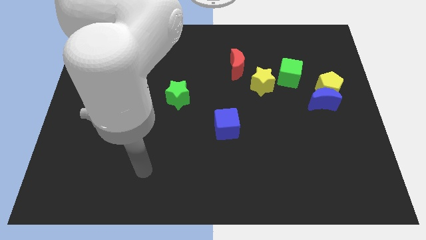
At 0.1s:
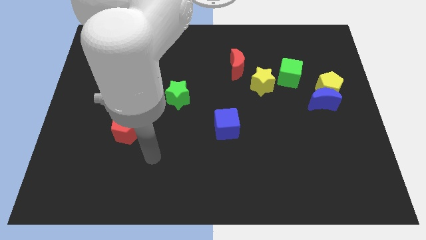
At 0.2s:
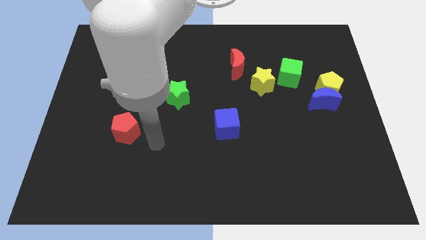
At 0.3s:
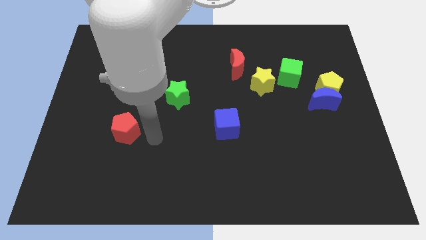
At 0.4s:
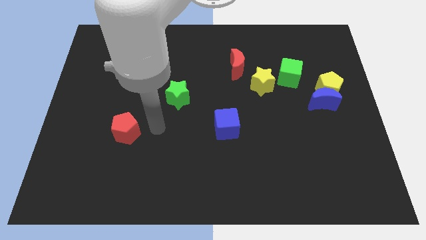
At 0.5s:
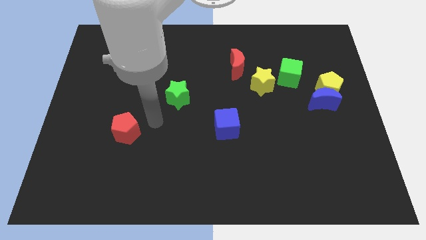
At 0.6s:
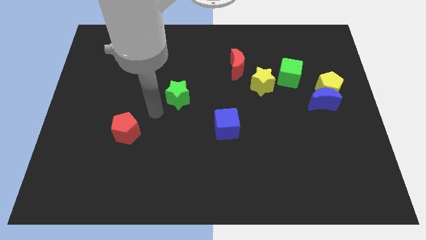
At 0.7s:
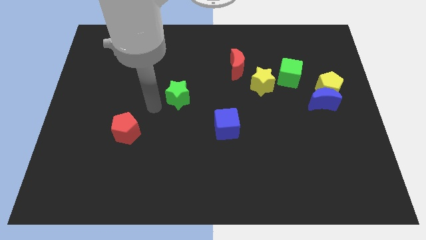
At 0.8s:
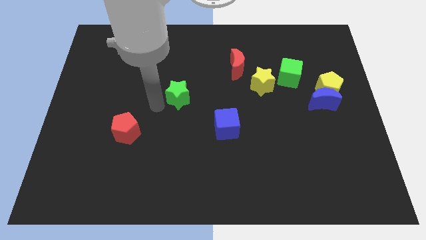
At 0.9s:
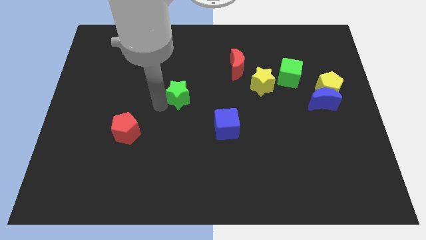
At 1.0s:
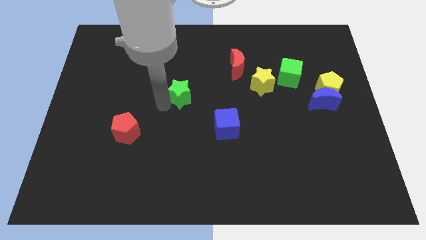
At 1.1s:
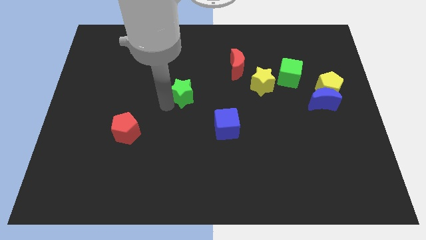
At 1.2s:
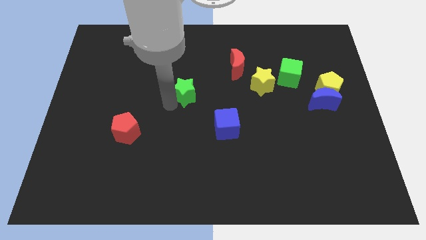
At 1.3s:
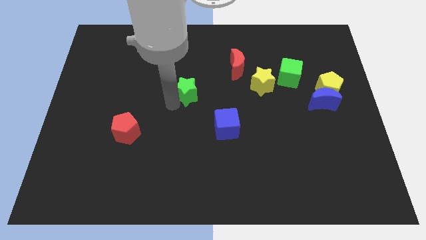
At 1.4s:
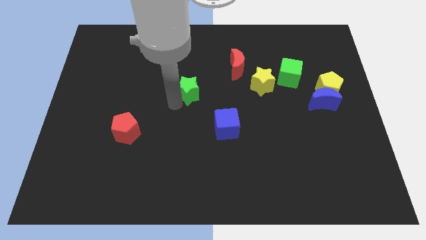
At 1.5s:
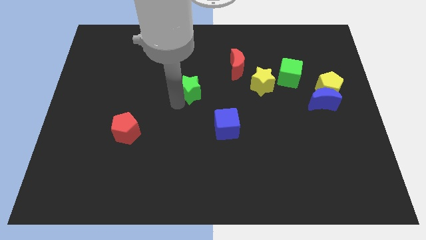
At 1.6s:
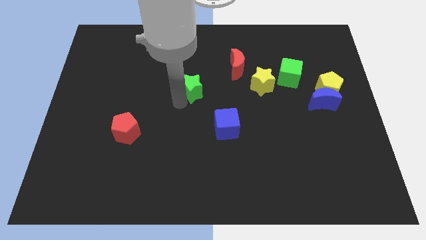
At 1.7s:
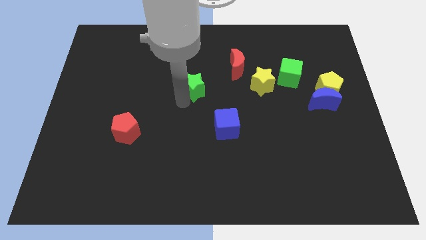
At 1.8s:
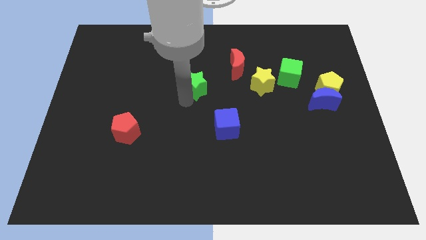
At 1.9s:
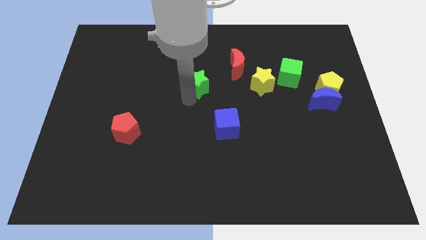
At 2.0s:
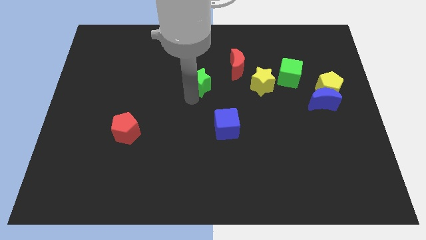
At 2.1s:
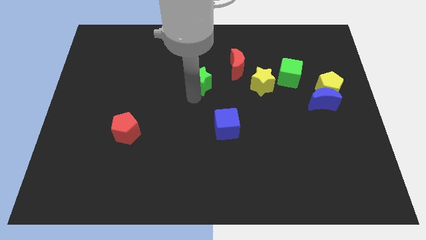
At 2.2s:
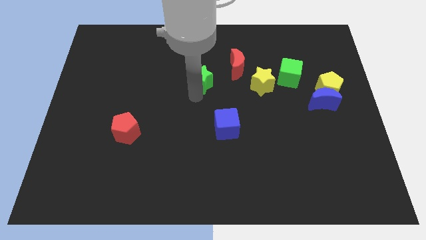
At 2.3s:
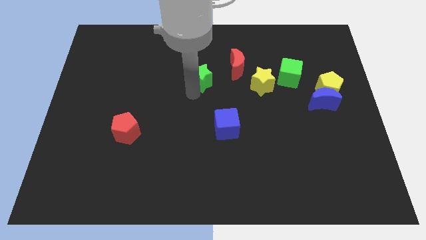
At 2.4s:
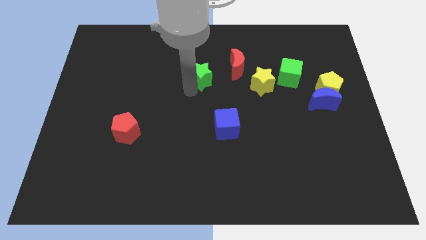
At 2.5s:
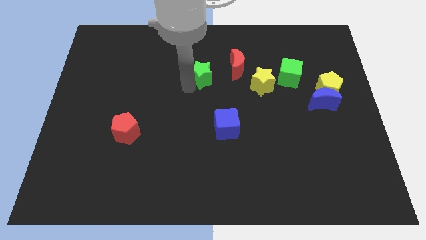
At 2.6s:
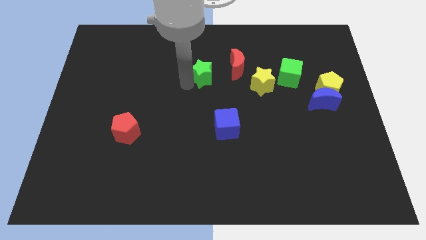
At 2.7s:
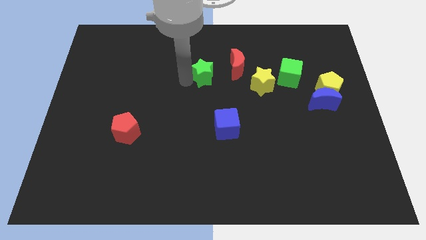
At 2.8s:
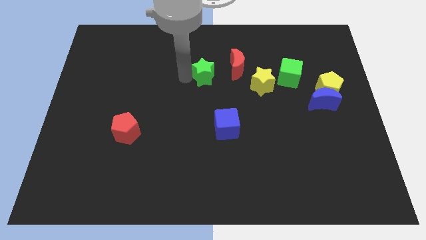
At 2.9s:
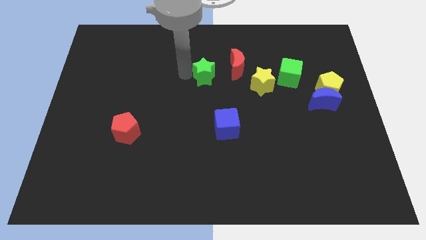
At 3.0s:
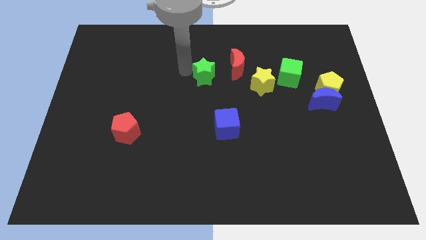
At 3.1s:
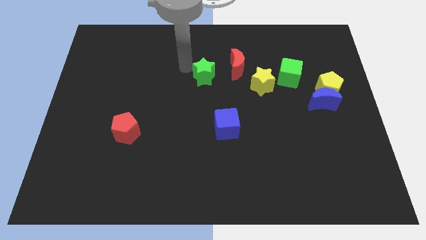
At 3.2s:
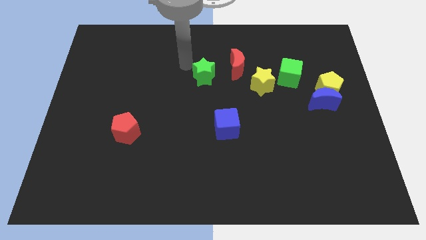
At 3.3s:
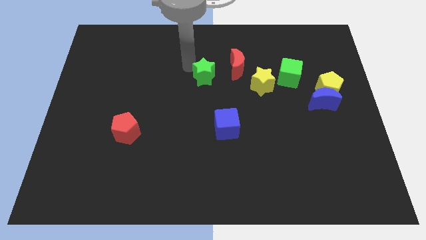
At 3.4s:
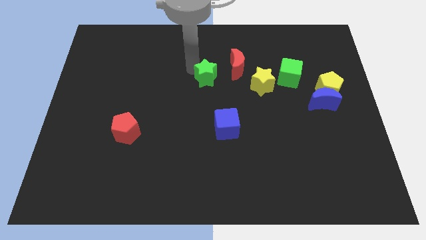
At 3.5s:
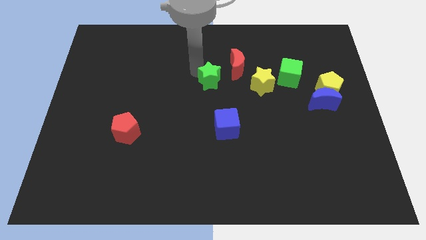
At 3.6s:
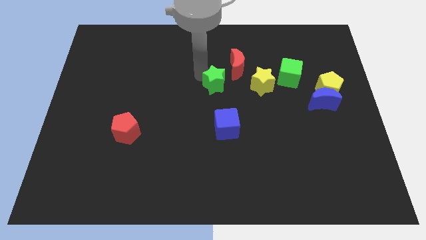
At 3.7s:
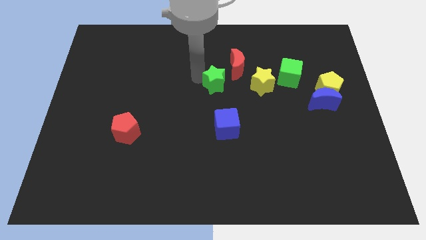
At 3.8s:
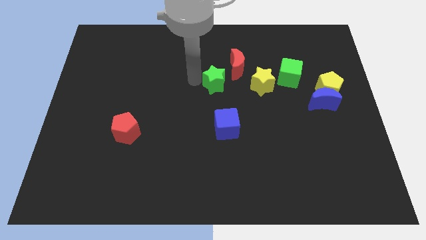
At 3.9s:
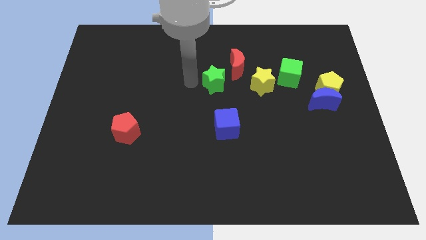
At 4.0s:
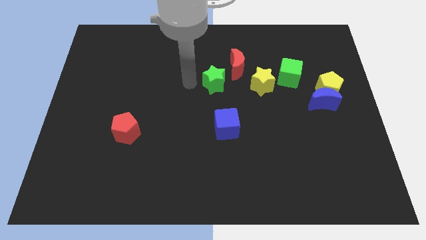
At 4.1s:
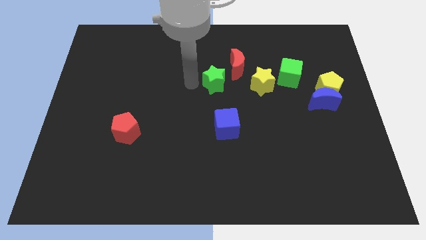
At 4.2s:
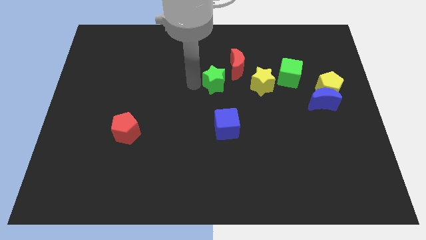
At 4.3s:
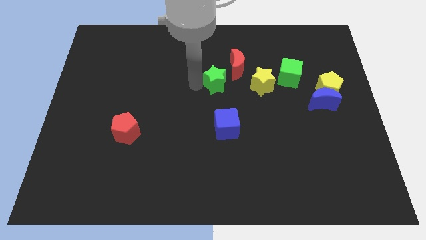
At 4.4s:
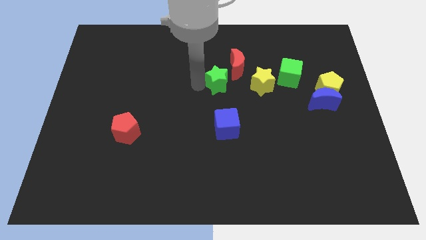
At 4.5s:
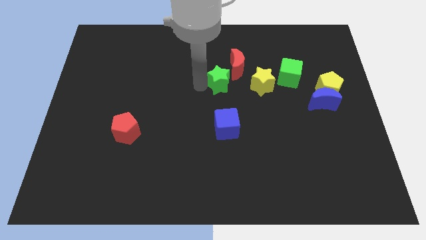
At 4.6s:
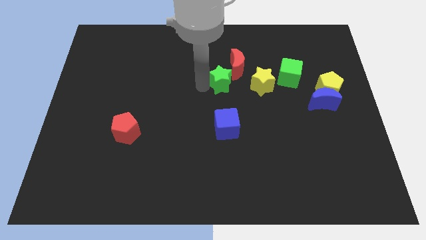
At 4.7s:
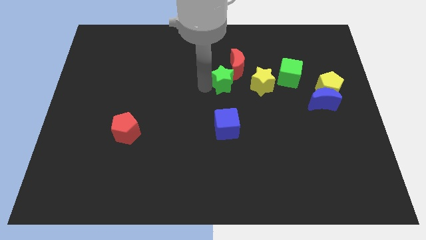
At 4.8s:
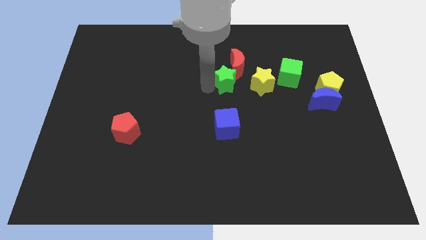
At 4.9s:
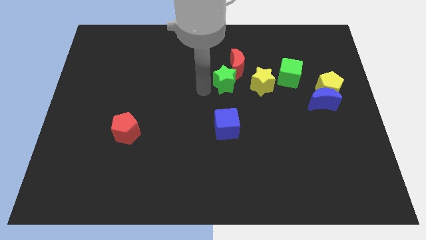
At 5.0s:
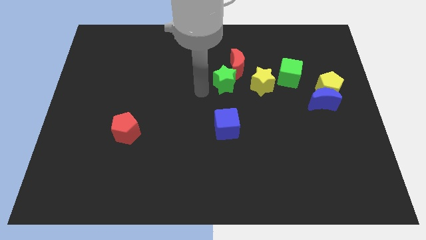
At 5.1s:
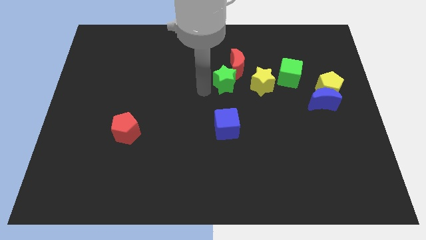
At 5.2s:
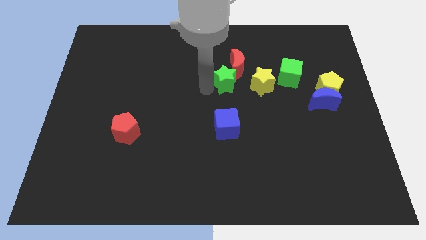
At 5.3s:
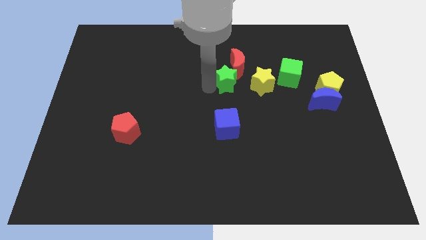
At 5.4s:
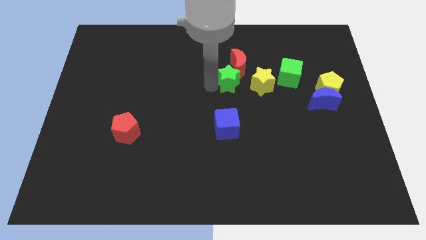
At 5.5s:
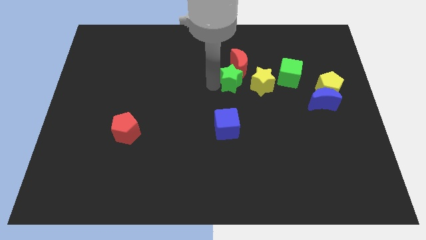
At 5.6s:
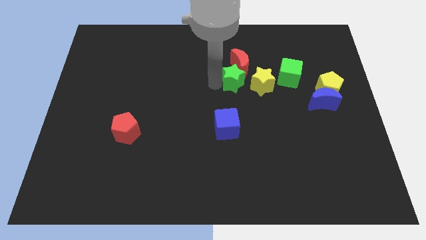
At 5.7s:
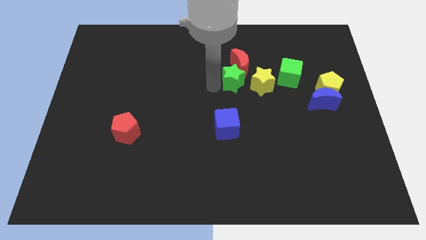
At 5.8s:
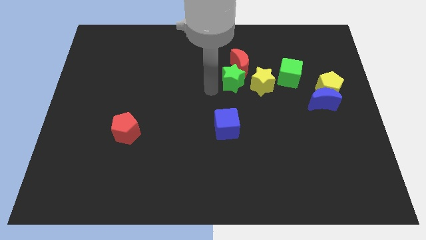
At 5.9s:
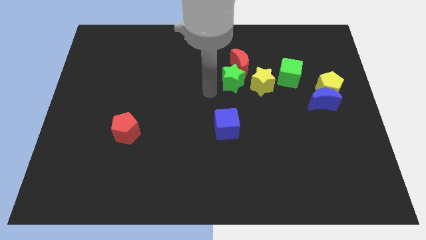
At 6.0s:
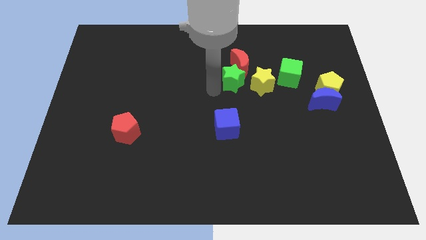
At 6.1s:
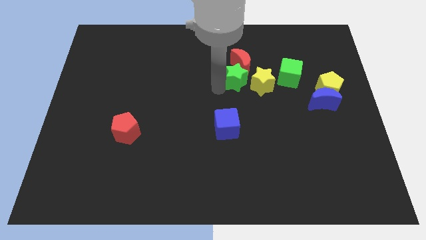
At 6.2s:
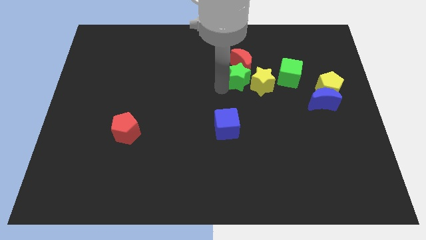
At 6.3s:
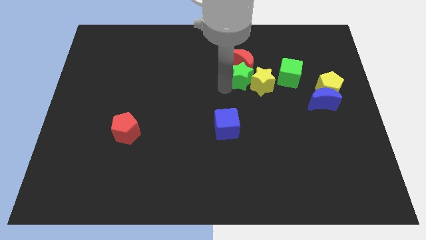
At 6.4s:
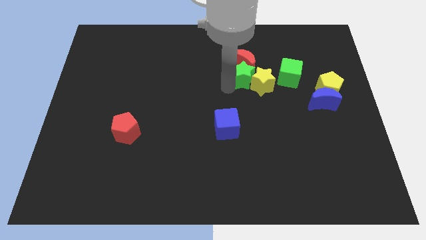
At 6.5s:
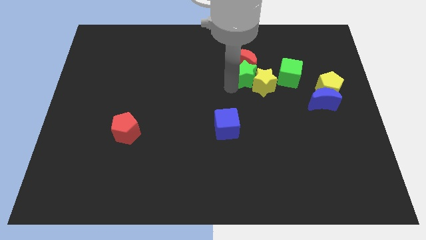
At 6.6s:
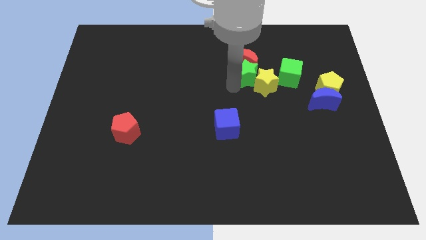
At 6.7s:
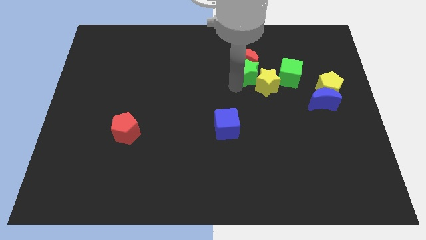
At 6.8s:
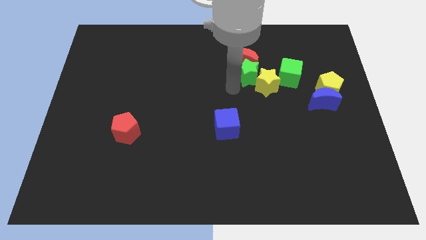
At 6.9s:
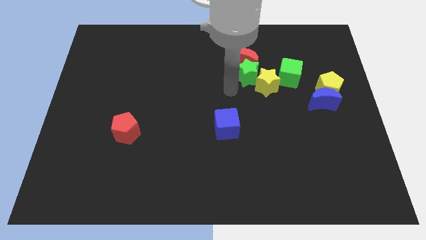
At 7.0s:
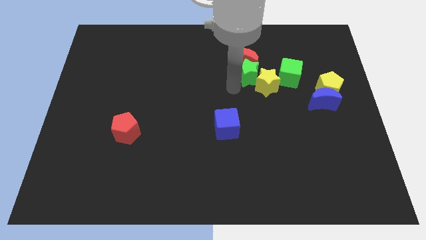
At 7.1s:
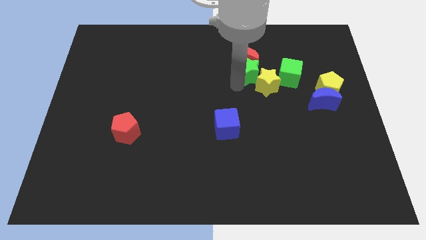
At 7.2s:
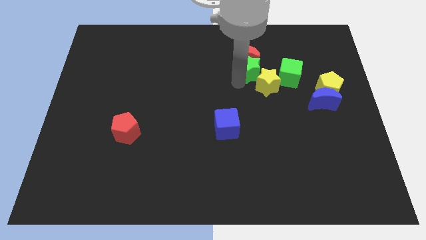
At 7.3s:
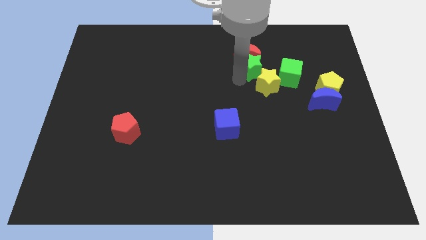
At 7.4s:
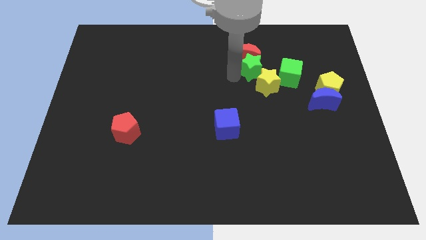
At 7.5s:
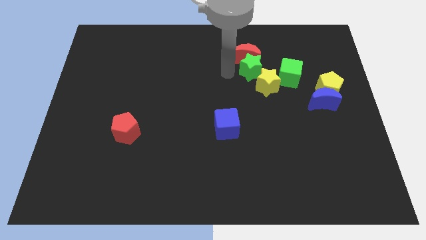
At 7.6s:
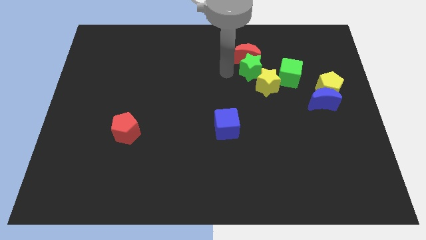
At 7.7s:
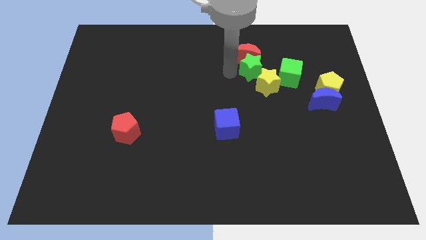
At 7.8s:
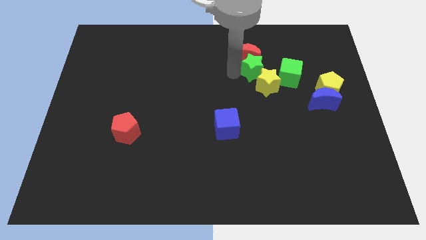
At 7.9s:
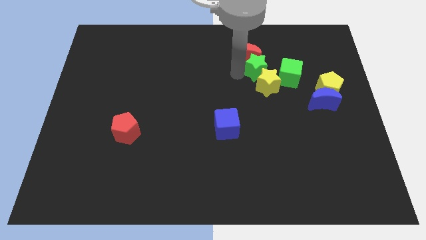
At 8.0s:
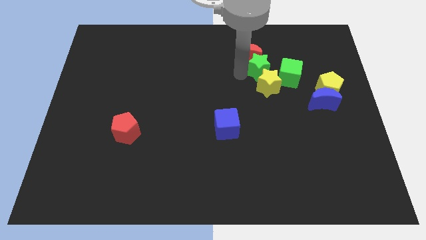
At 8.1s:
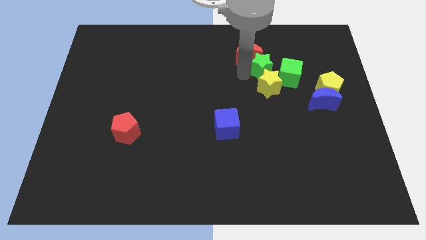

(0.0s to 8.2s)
slide the green star to the top right of the yellow star

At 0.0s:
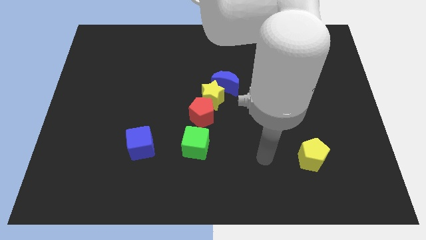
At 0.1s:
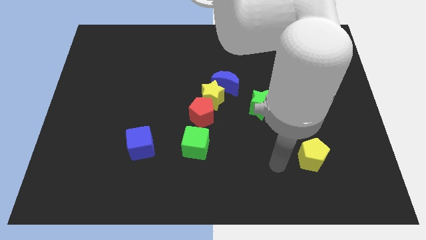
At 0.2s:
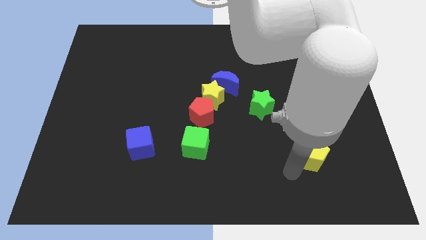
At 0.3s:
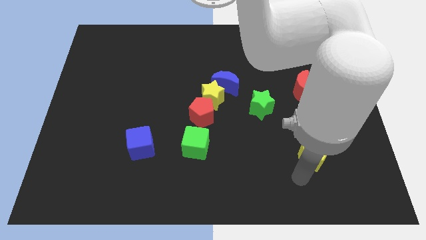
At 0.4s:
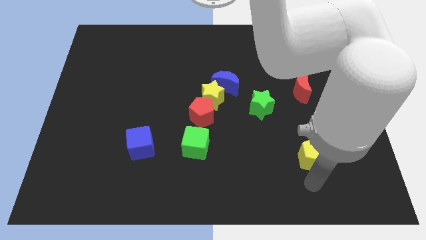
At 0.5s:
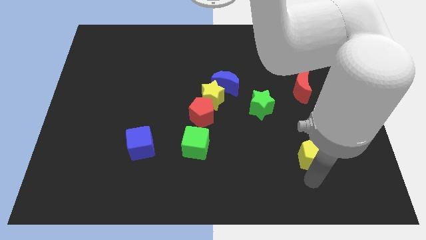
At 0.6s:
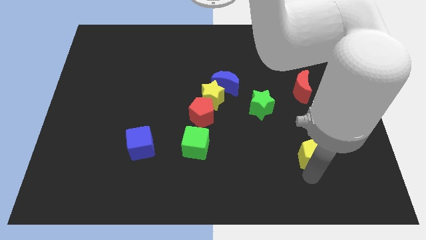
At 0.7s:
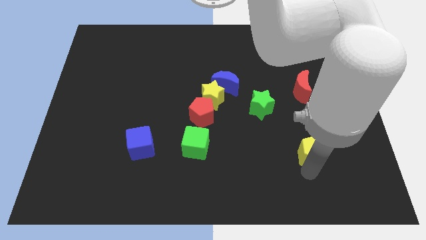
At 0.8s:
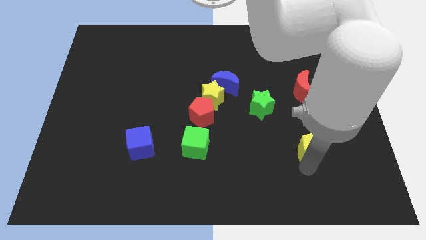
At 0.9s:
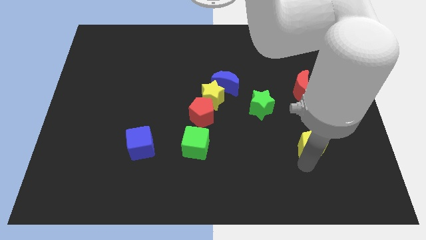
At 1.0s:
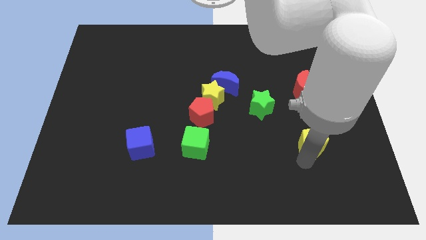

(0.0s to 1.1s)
put the yellow pentagon to the bottom side of the red moon
